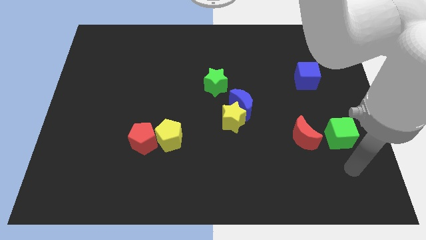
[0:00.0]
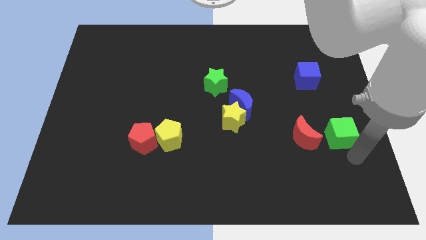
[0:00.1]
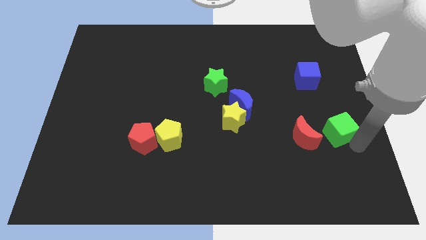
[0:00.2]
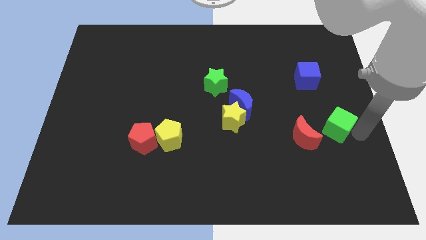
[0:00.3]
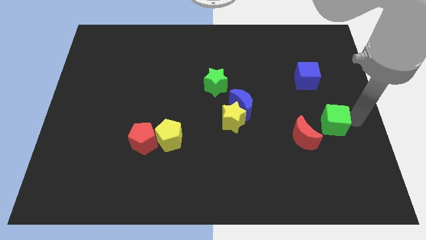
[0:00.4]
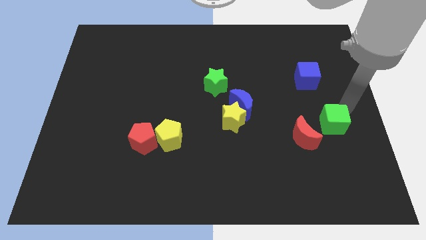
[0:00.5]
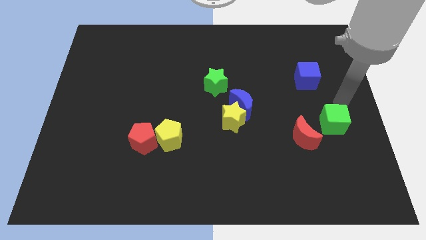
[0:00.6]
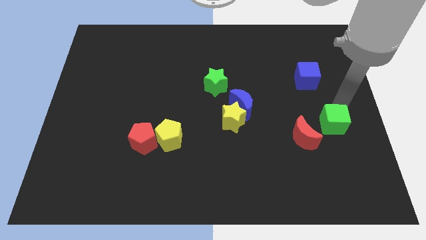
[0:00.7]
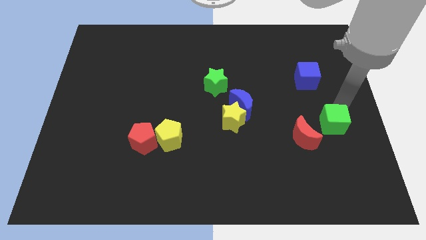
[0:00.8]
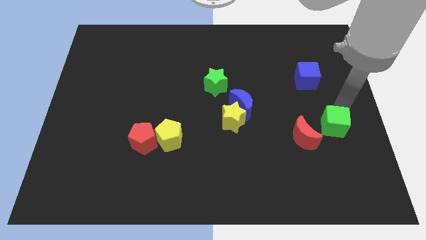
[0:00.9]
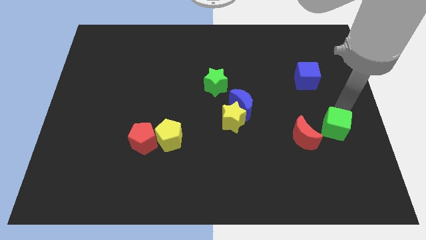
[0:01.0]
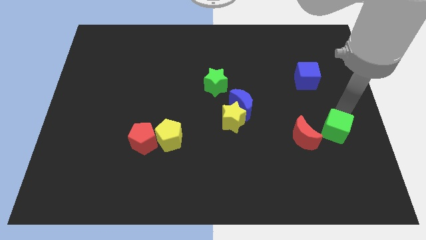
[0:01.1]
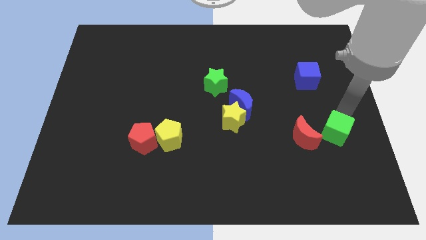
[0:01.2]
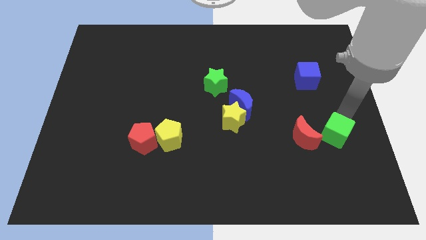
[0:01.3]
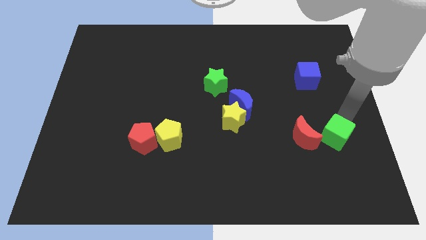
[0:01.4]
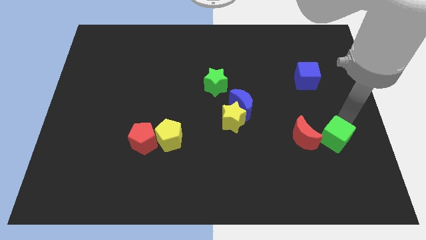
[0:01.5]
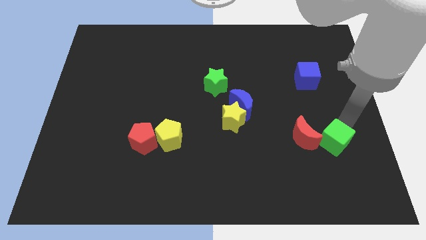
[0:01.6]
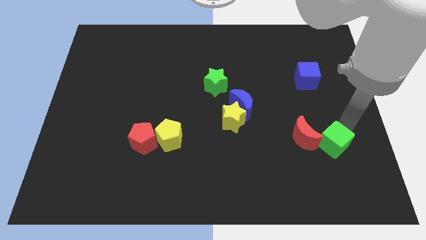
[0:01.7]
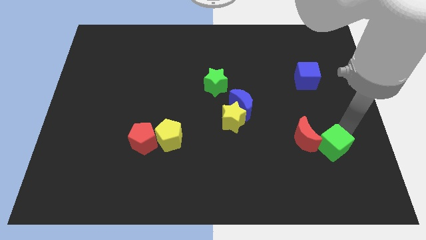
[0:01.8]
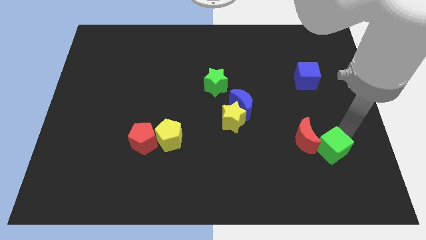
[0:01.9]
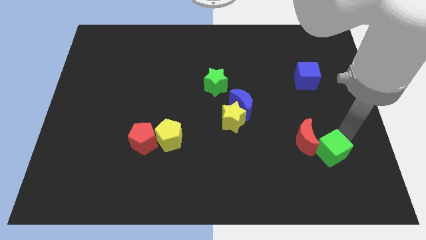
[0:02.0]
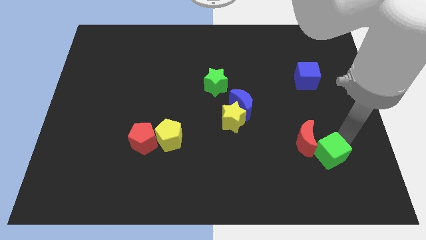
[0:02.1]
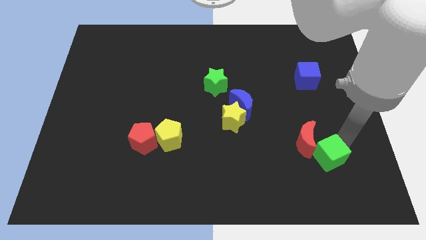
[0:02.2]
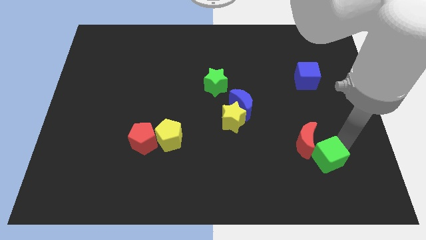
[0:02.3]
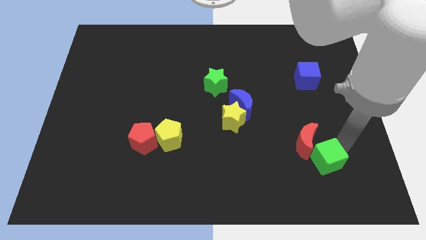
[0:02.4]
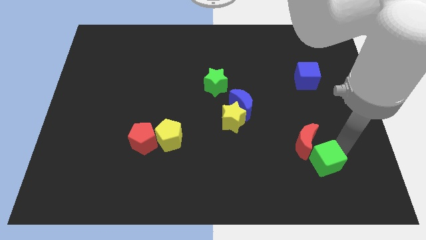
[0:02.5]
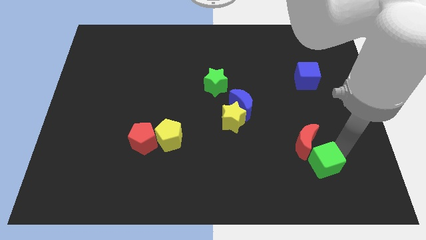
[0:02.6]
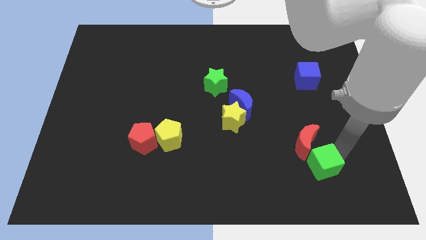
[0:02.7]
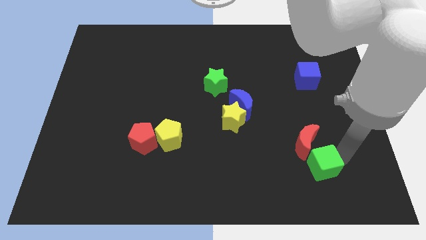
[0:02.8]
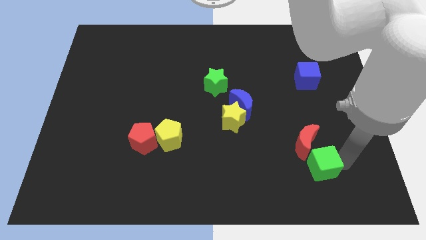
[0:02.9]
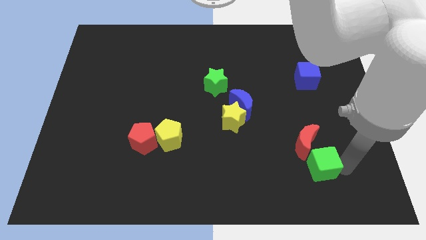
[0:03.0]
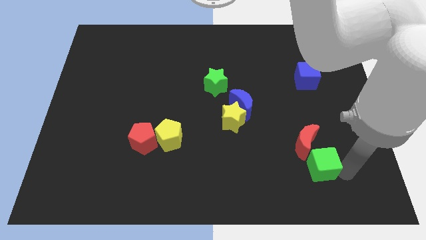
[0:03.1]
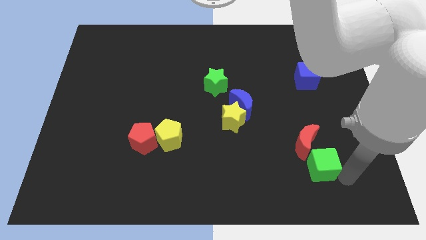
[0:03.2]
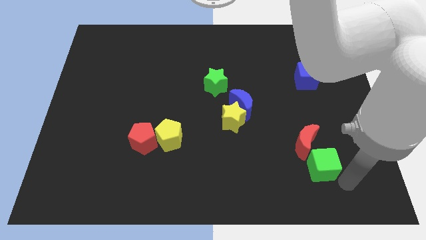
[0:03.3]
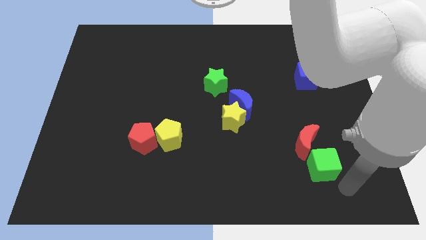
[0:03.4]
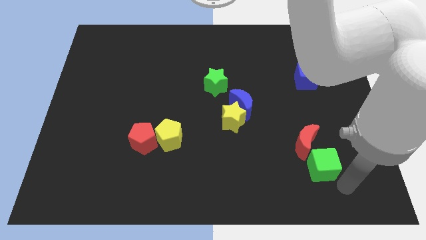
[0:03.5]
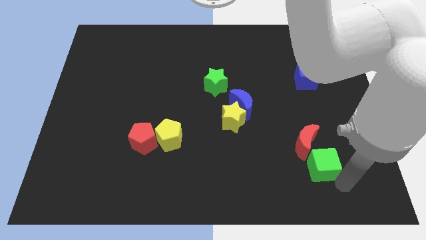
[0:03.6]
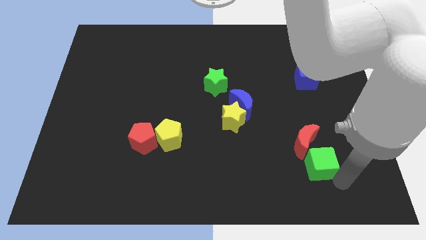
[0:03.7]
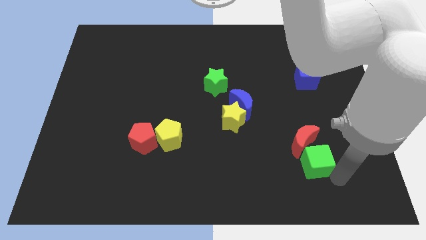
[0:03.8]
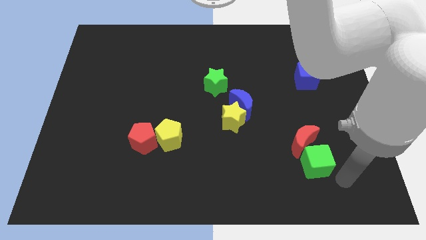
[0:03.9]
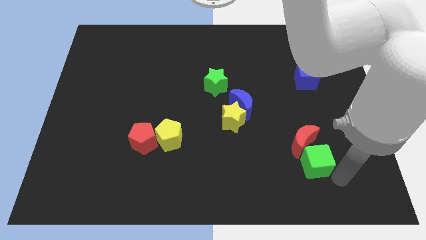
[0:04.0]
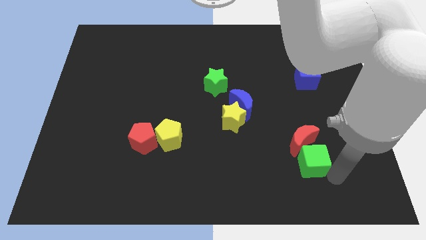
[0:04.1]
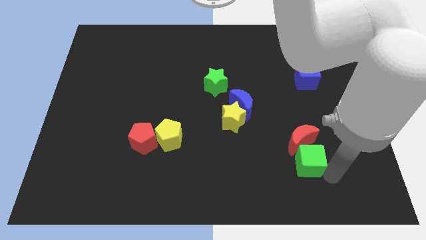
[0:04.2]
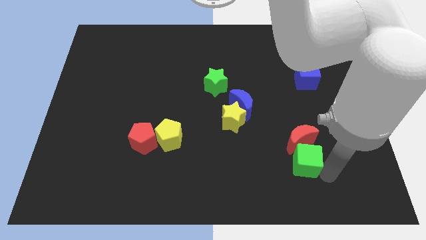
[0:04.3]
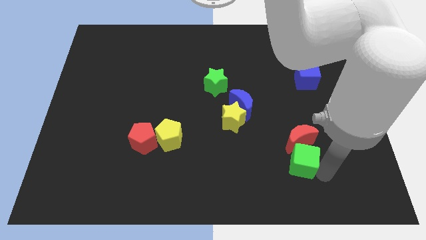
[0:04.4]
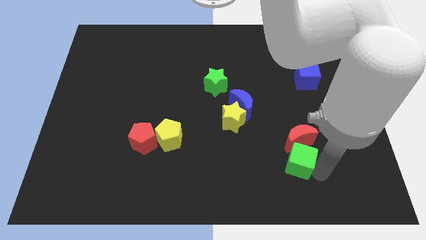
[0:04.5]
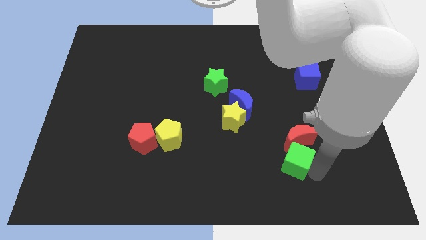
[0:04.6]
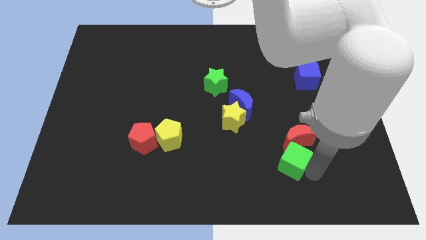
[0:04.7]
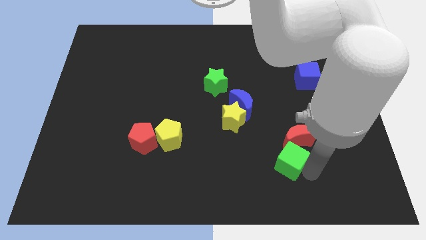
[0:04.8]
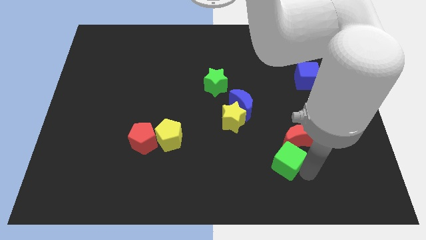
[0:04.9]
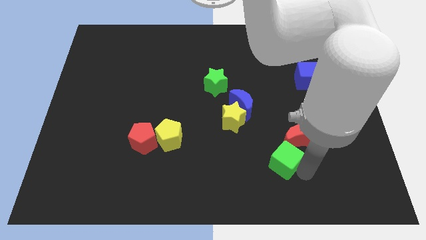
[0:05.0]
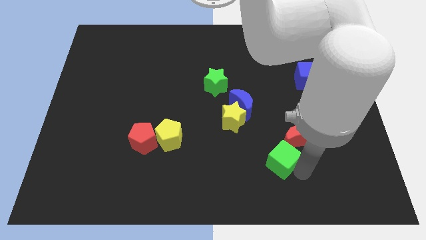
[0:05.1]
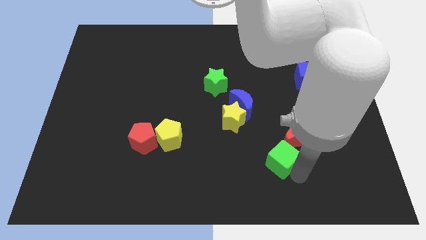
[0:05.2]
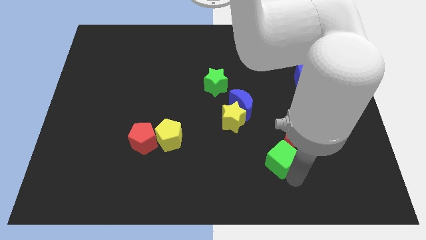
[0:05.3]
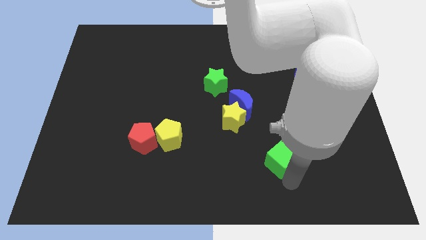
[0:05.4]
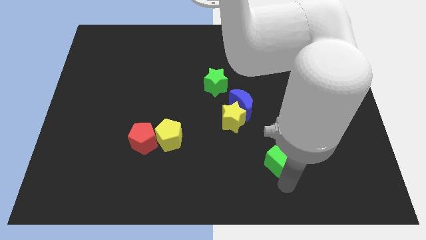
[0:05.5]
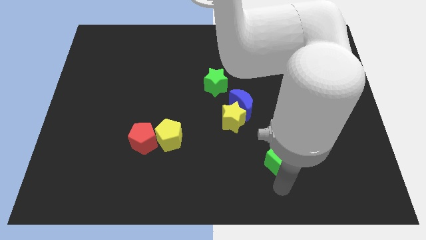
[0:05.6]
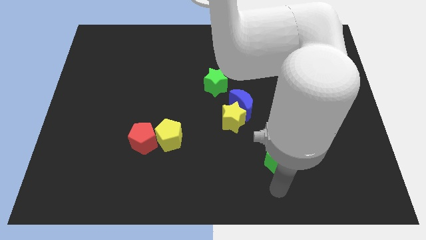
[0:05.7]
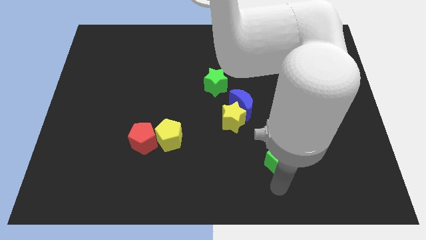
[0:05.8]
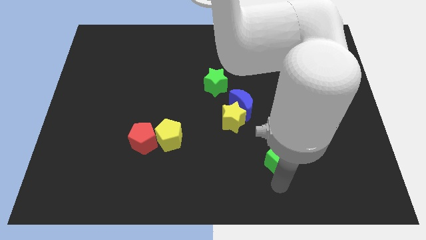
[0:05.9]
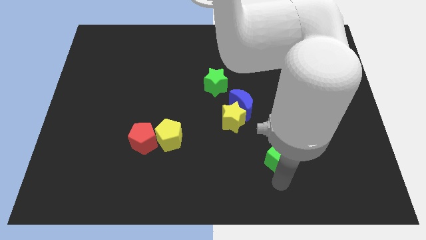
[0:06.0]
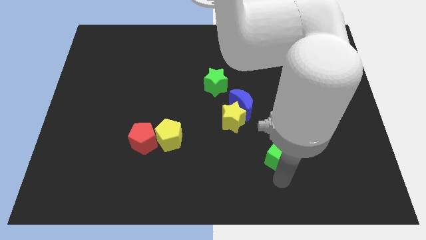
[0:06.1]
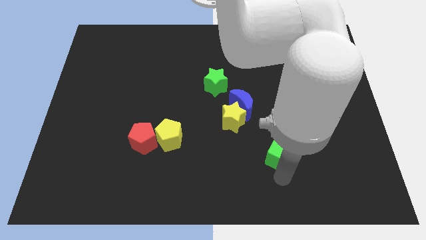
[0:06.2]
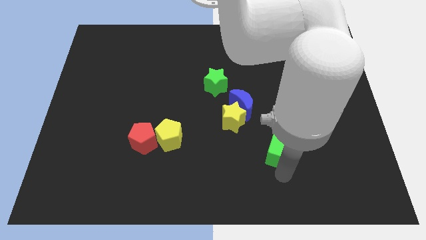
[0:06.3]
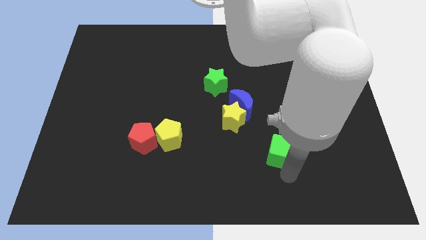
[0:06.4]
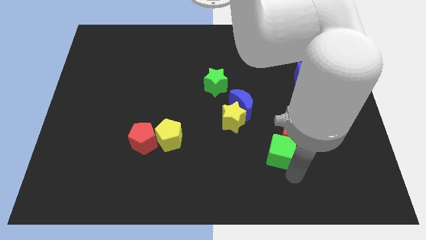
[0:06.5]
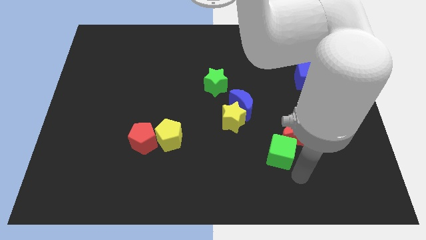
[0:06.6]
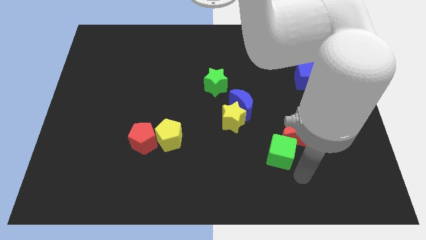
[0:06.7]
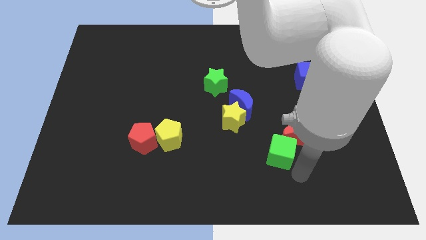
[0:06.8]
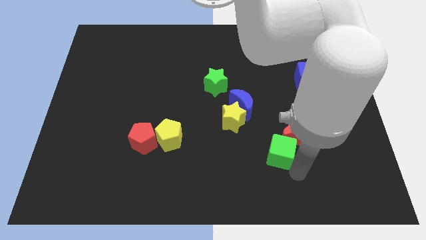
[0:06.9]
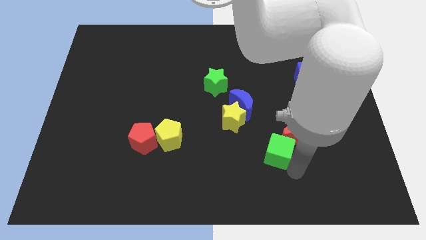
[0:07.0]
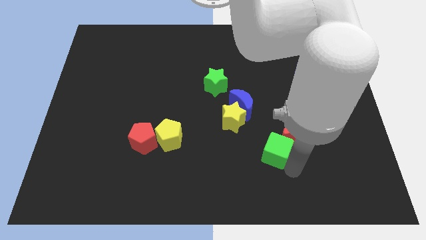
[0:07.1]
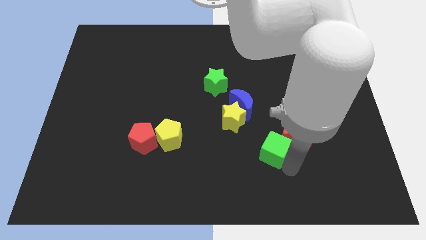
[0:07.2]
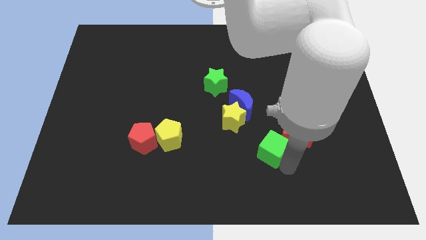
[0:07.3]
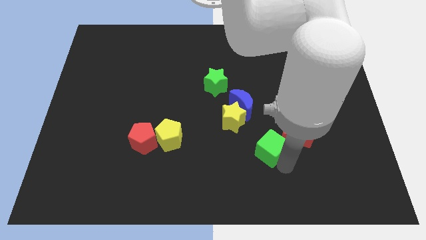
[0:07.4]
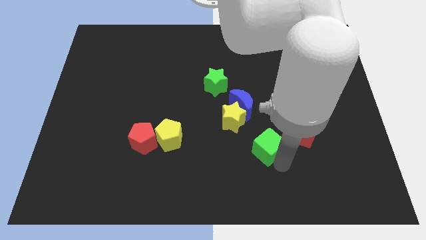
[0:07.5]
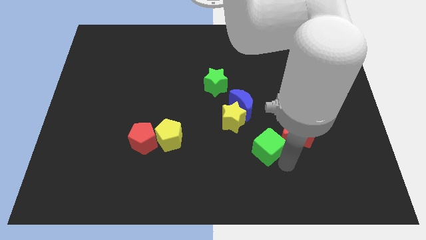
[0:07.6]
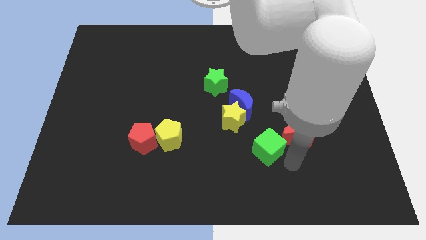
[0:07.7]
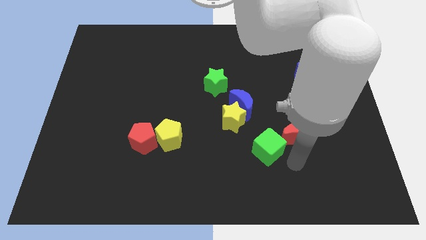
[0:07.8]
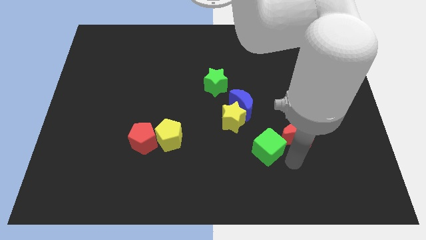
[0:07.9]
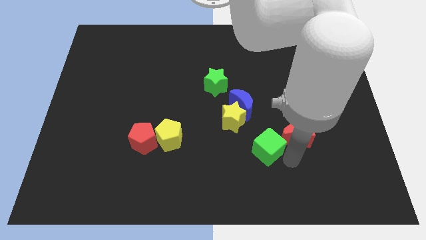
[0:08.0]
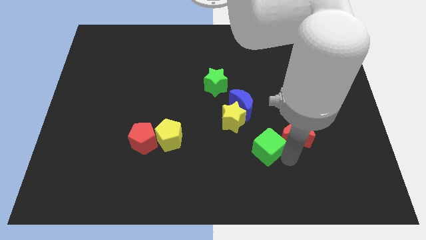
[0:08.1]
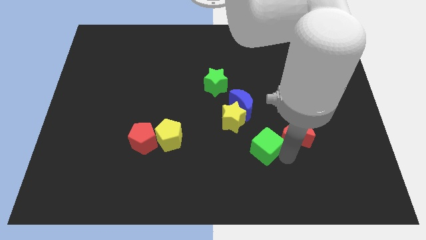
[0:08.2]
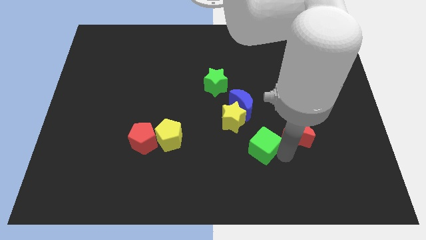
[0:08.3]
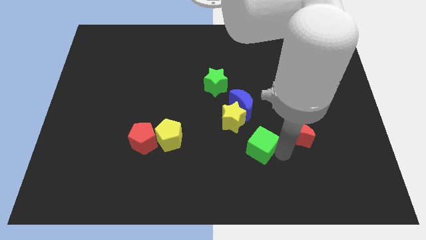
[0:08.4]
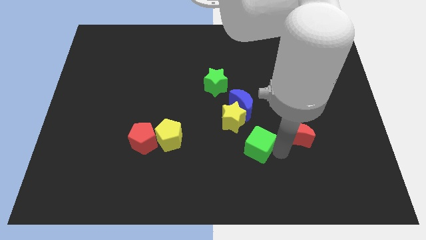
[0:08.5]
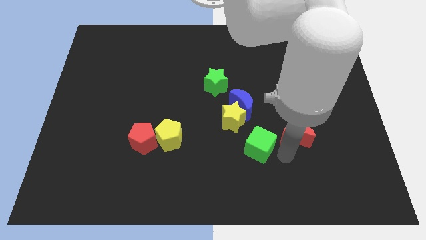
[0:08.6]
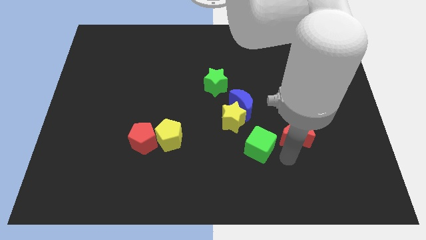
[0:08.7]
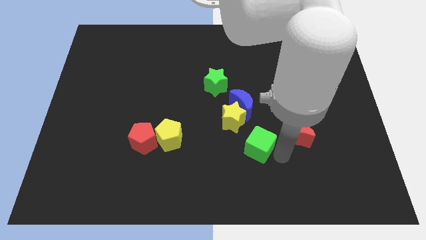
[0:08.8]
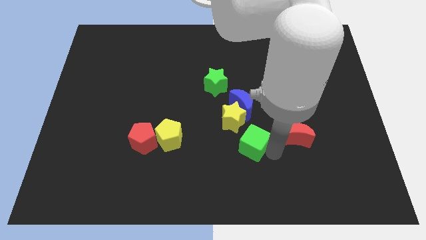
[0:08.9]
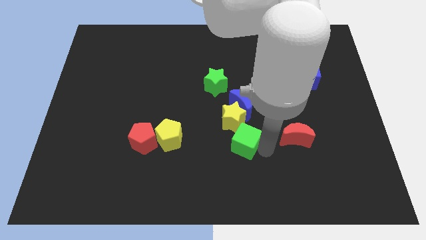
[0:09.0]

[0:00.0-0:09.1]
push the green cube to the left
